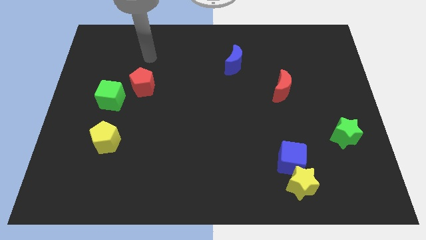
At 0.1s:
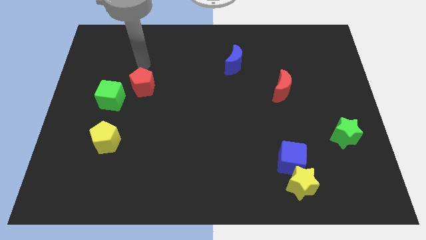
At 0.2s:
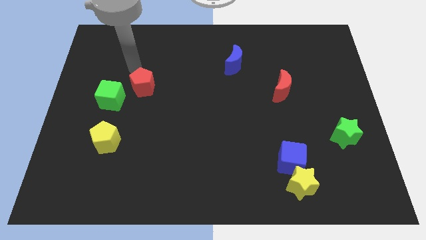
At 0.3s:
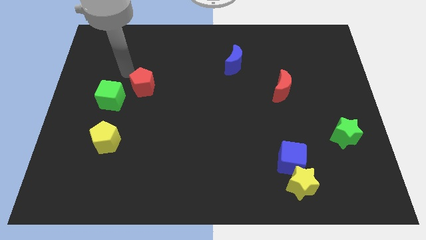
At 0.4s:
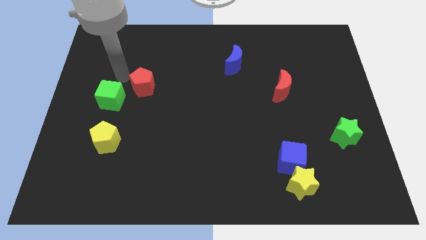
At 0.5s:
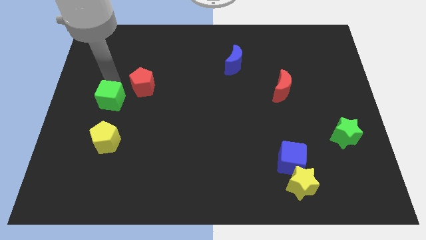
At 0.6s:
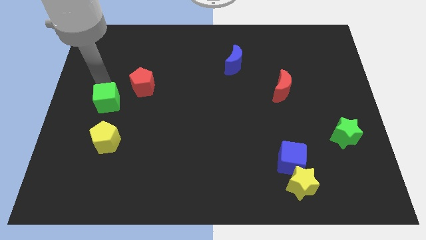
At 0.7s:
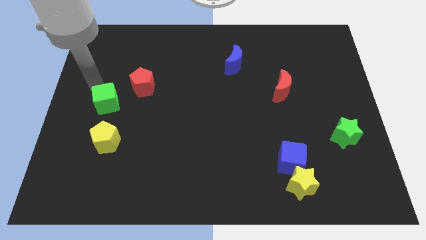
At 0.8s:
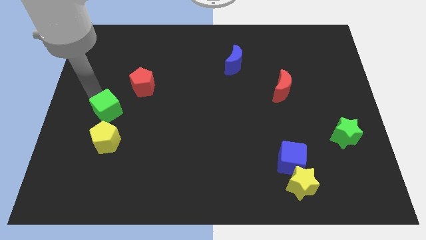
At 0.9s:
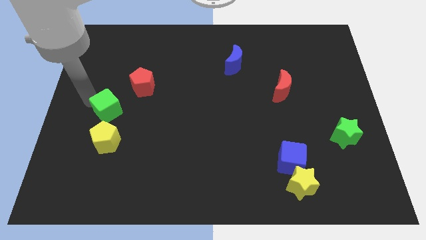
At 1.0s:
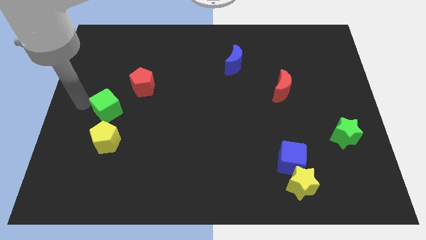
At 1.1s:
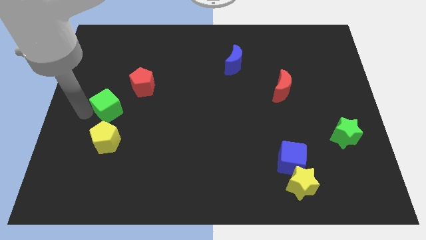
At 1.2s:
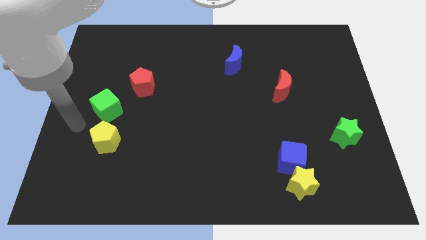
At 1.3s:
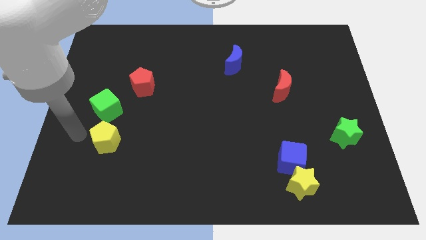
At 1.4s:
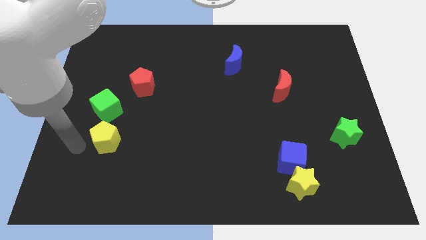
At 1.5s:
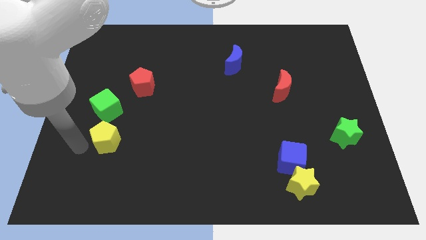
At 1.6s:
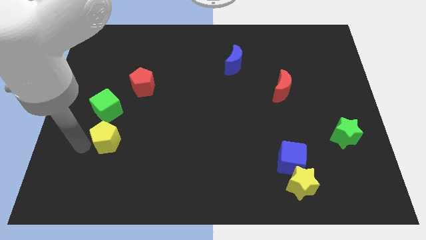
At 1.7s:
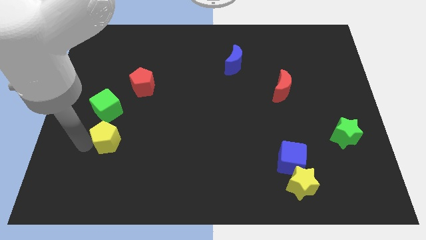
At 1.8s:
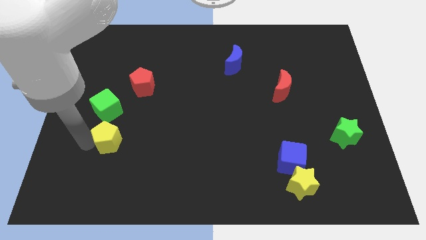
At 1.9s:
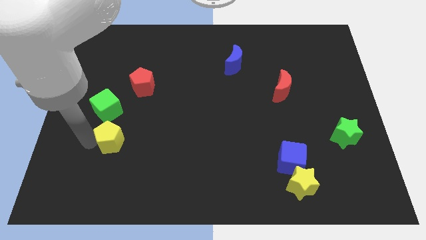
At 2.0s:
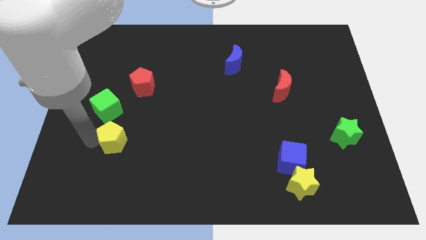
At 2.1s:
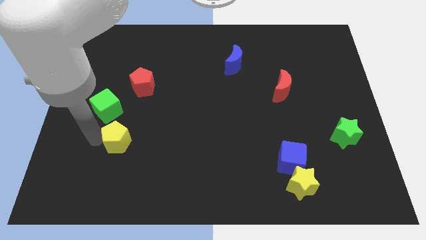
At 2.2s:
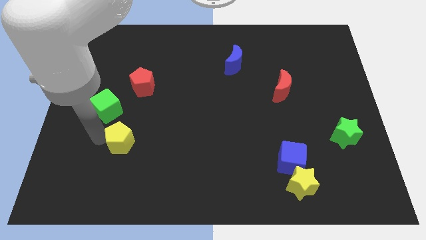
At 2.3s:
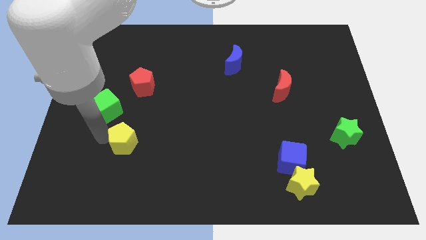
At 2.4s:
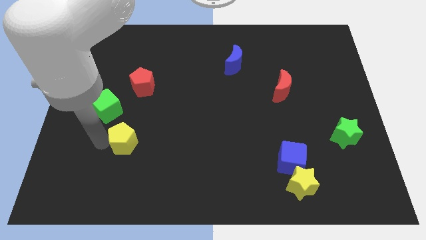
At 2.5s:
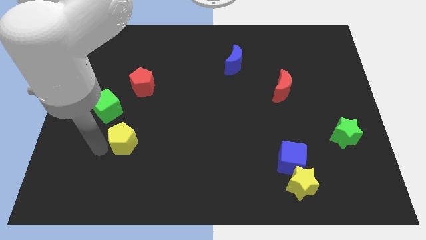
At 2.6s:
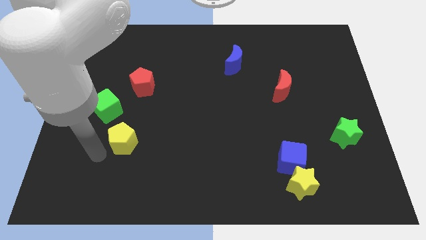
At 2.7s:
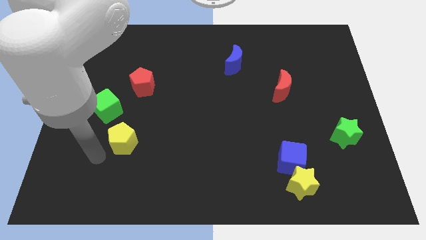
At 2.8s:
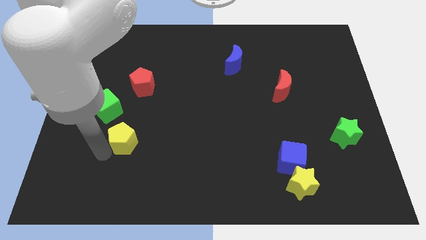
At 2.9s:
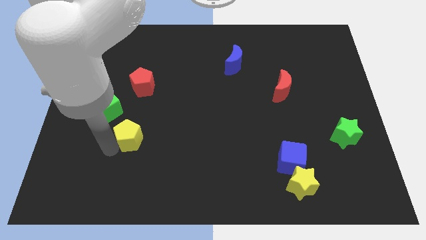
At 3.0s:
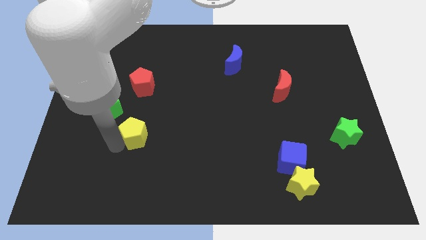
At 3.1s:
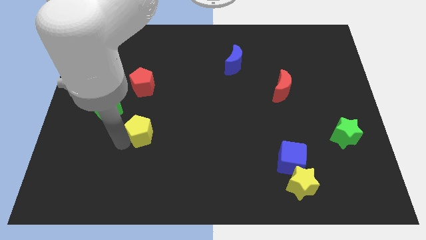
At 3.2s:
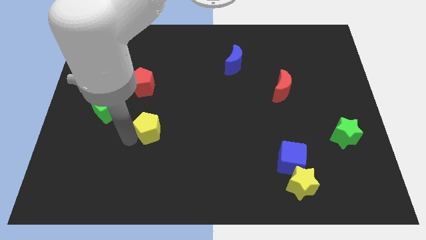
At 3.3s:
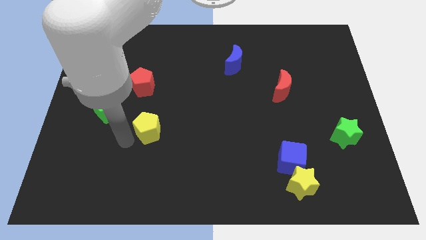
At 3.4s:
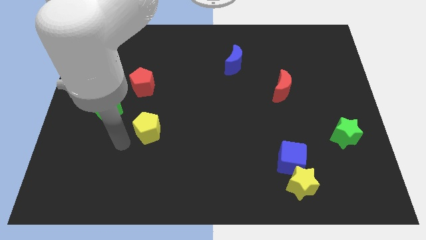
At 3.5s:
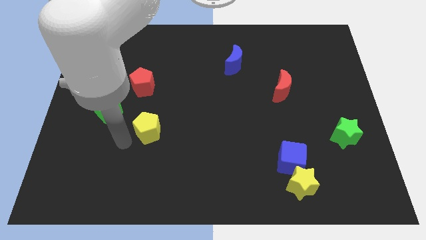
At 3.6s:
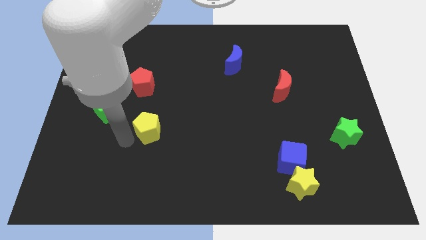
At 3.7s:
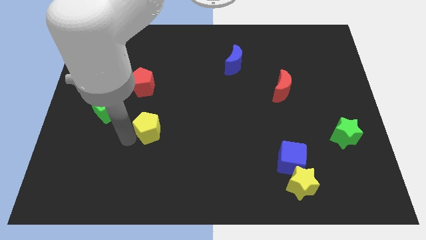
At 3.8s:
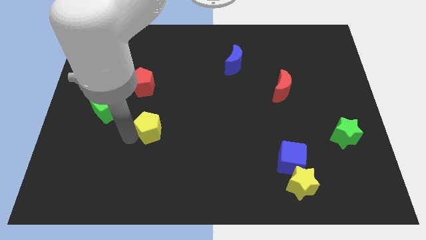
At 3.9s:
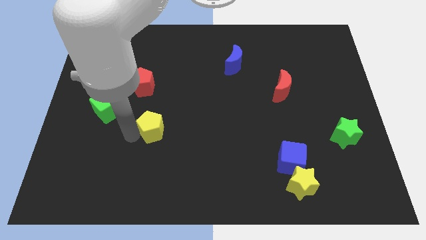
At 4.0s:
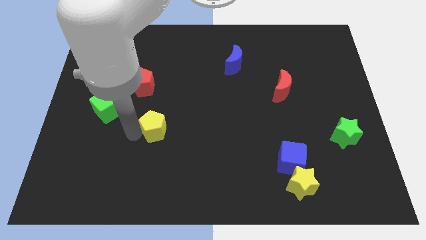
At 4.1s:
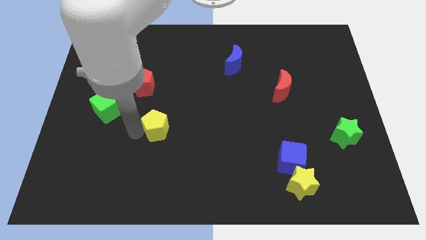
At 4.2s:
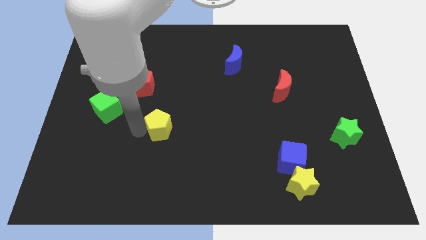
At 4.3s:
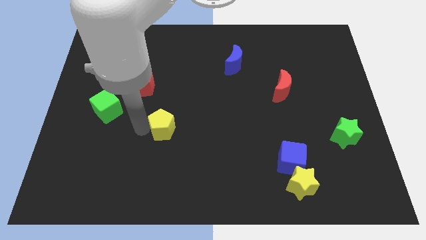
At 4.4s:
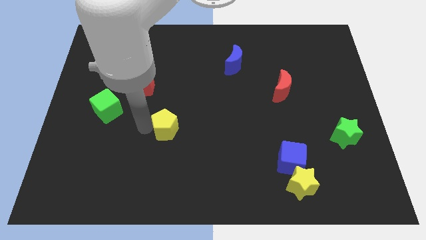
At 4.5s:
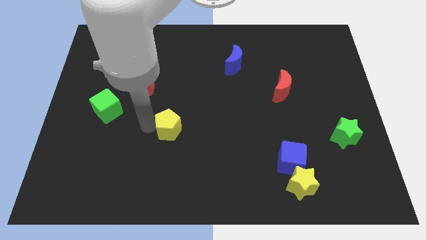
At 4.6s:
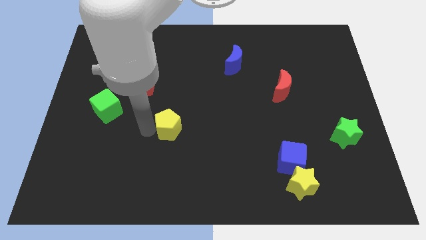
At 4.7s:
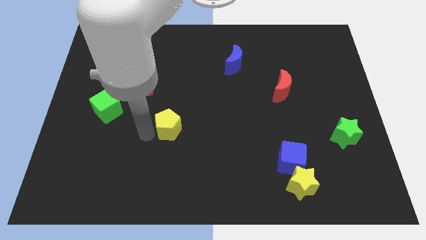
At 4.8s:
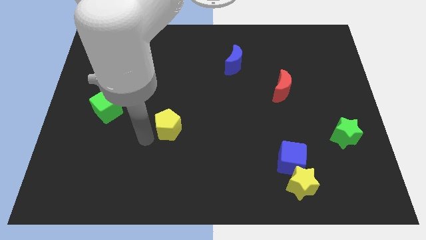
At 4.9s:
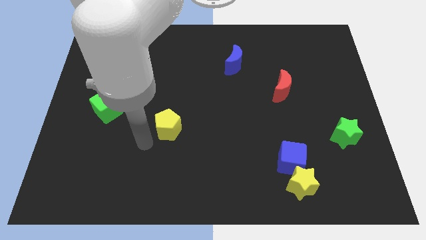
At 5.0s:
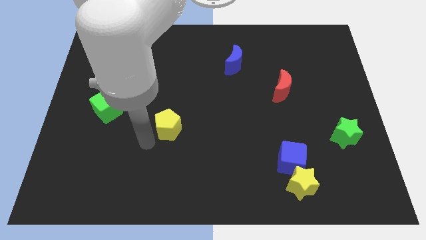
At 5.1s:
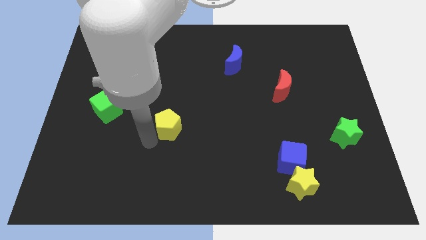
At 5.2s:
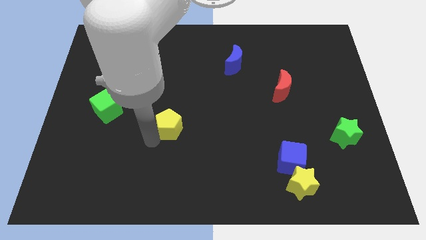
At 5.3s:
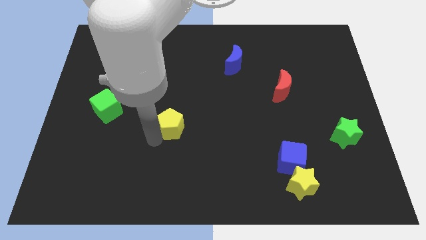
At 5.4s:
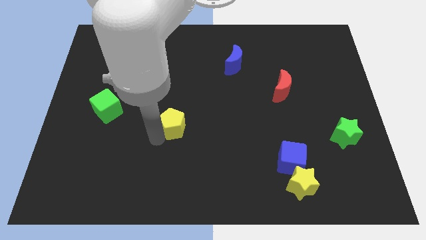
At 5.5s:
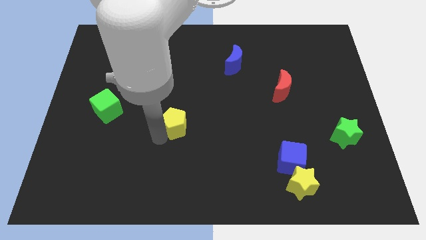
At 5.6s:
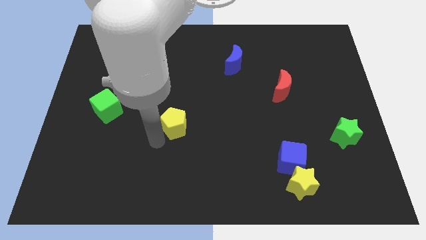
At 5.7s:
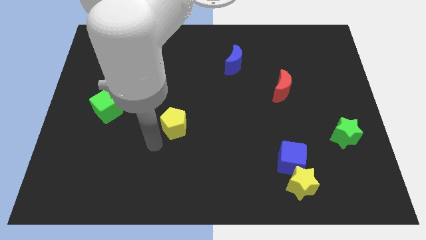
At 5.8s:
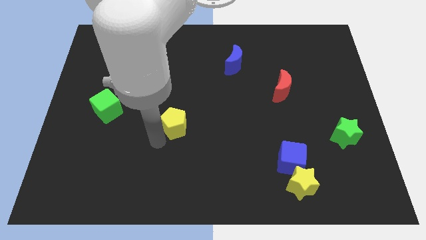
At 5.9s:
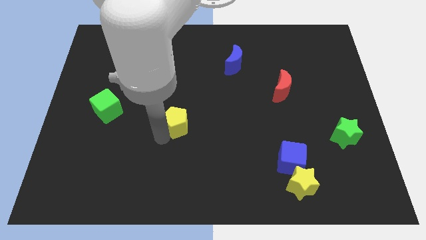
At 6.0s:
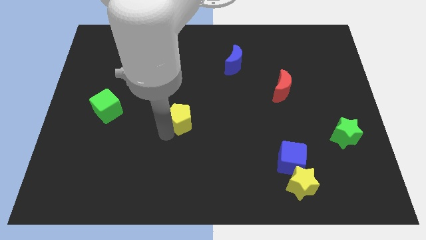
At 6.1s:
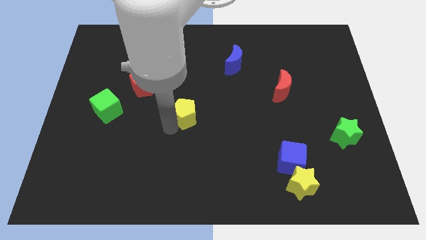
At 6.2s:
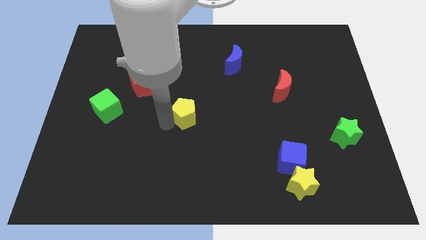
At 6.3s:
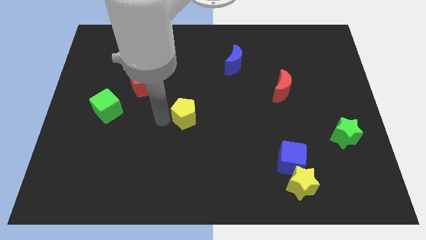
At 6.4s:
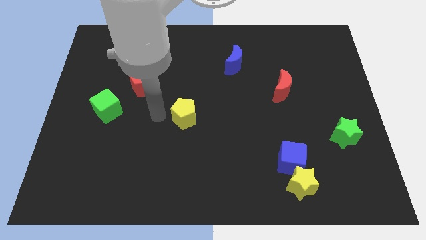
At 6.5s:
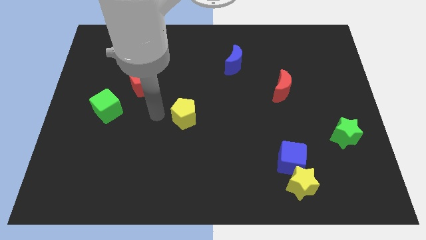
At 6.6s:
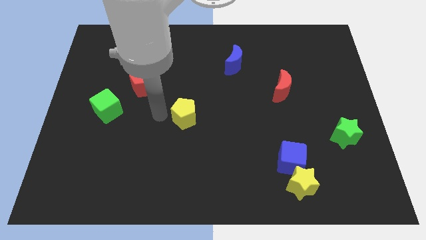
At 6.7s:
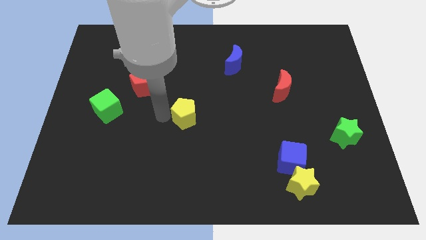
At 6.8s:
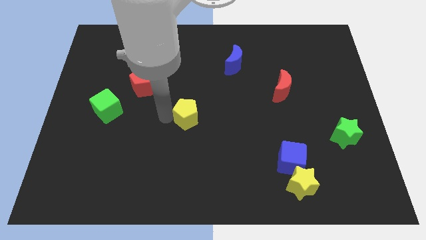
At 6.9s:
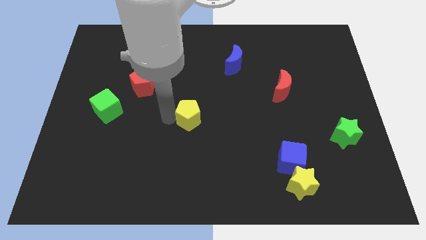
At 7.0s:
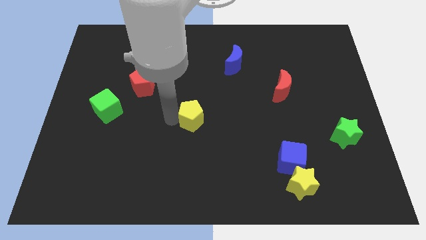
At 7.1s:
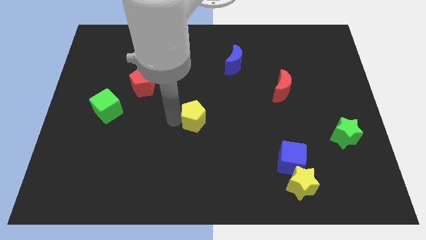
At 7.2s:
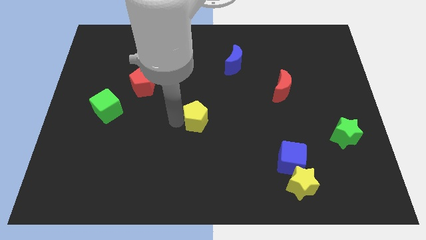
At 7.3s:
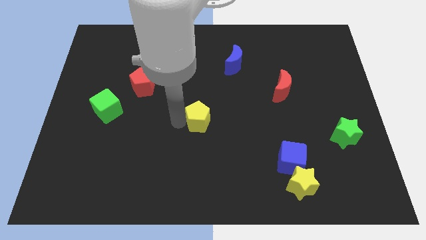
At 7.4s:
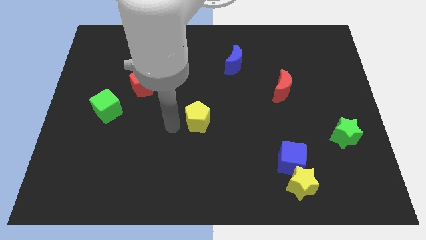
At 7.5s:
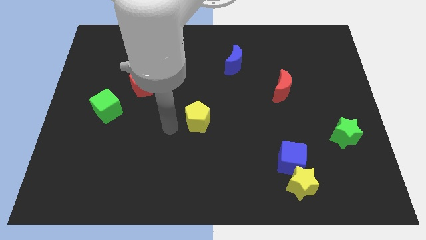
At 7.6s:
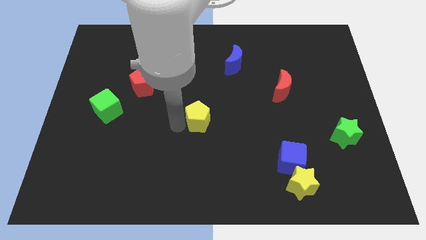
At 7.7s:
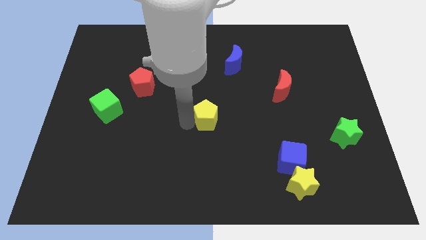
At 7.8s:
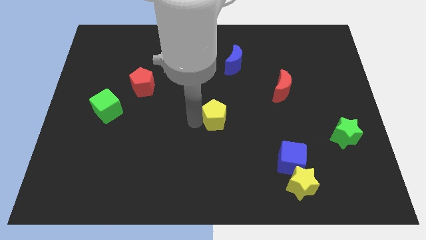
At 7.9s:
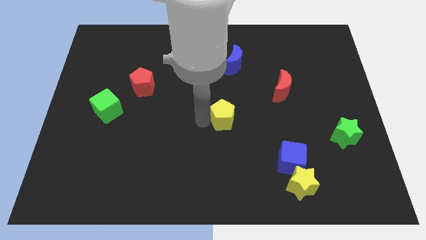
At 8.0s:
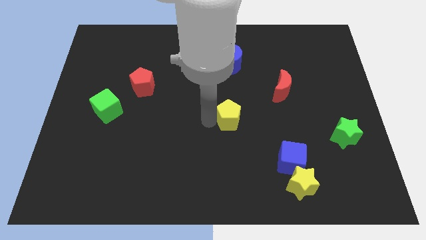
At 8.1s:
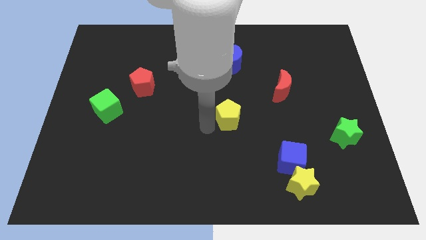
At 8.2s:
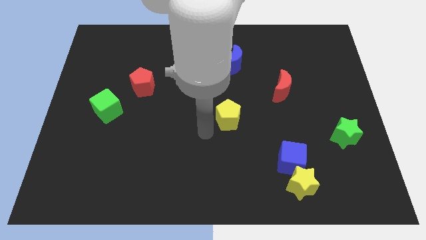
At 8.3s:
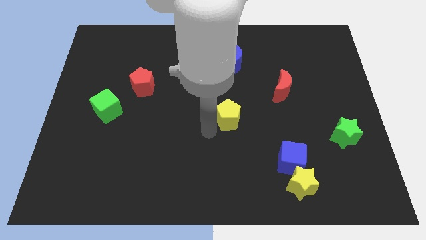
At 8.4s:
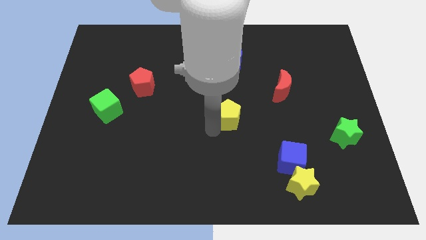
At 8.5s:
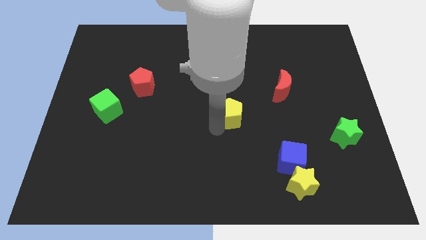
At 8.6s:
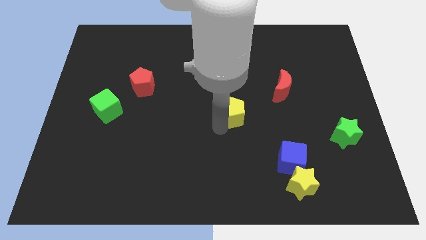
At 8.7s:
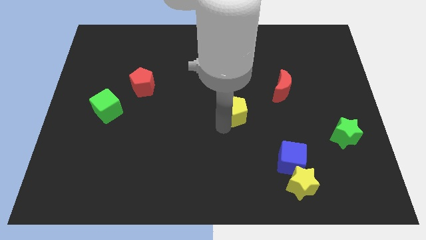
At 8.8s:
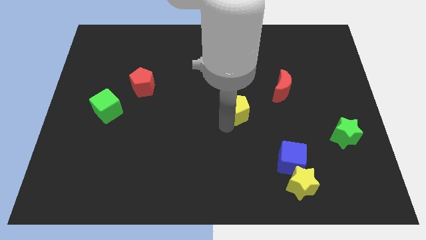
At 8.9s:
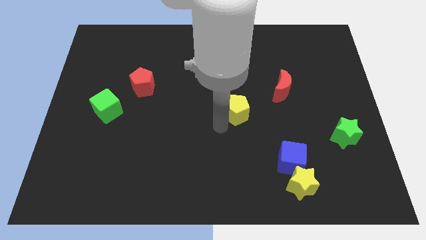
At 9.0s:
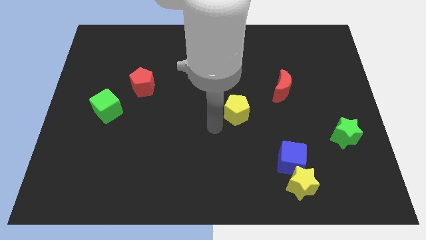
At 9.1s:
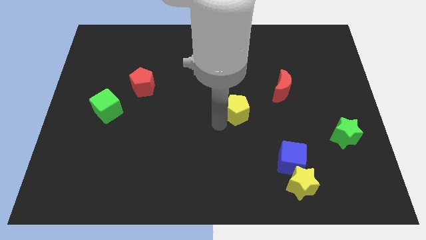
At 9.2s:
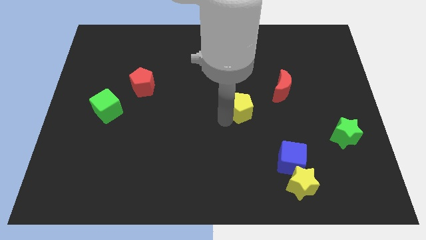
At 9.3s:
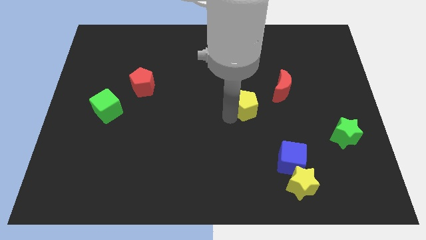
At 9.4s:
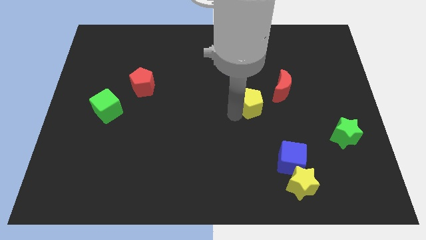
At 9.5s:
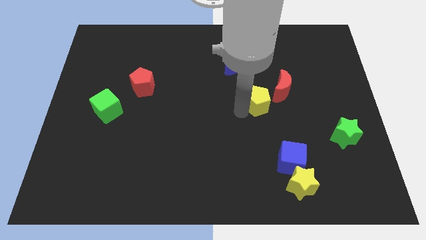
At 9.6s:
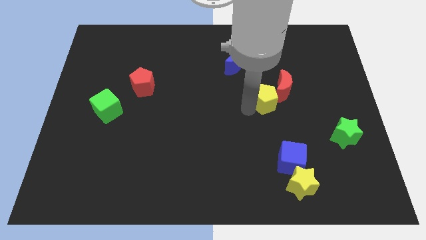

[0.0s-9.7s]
slide the yellow pentagon towards the red moon
